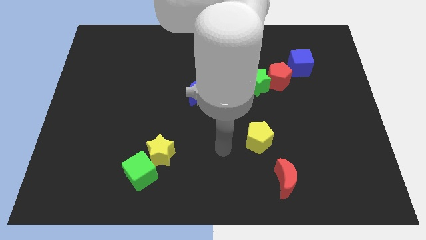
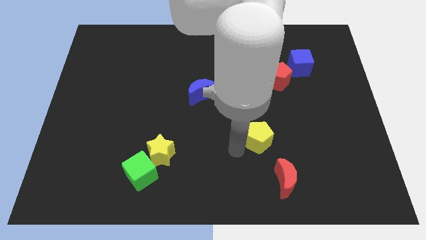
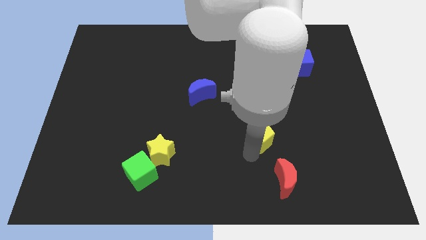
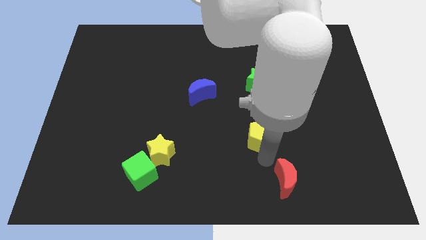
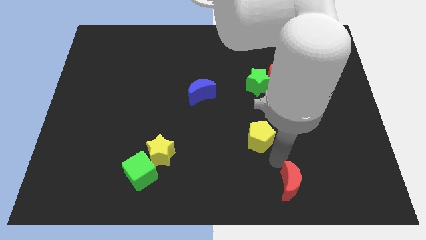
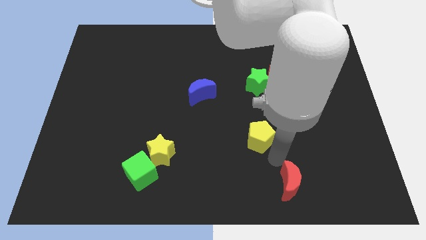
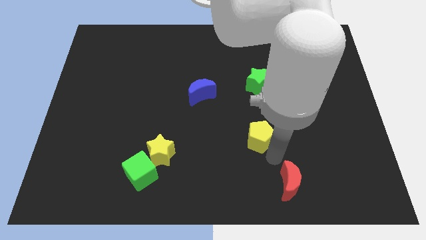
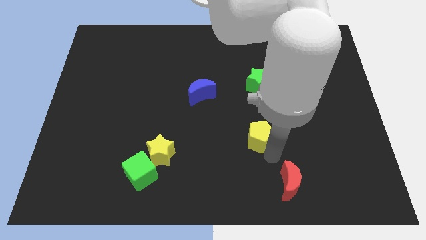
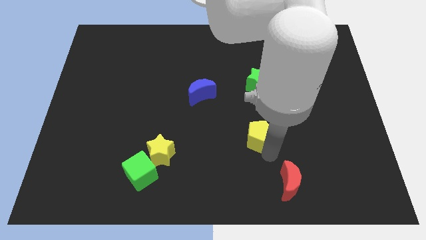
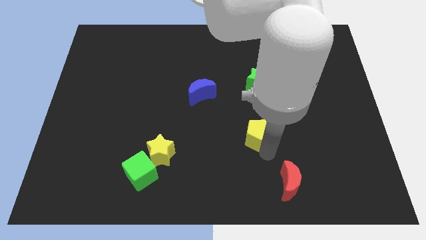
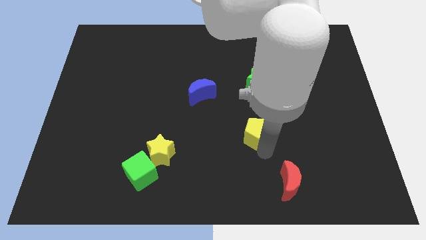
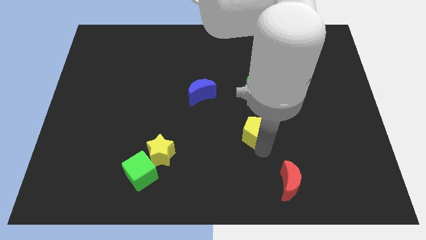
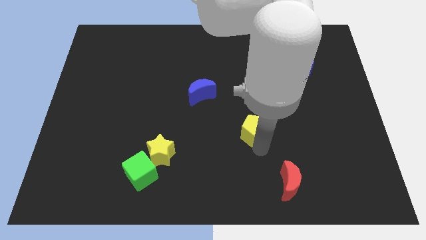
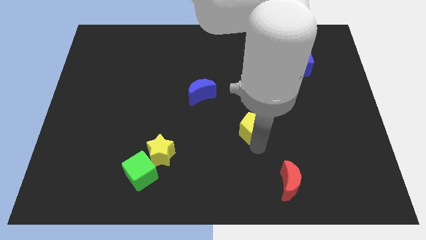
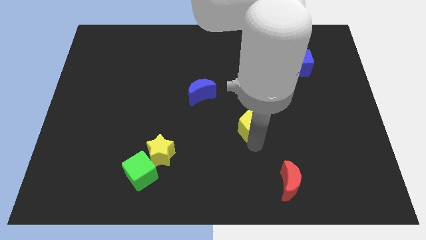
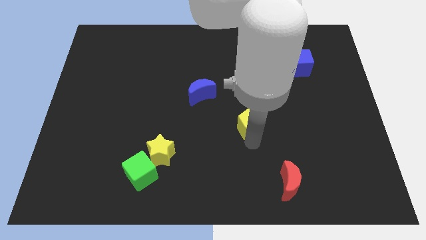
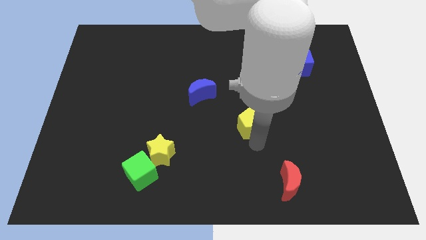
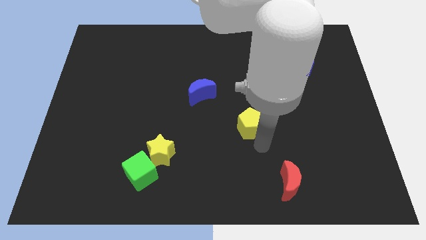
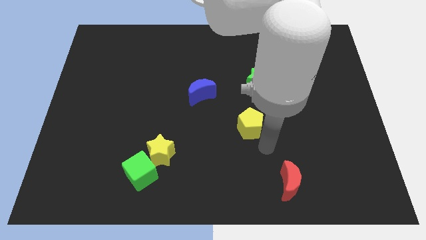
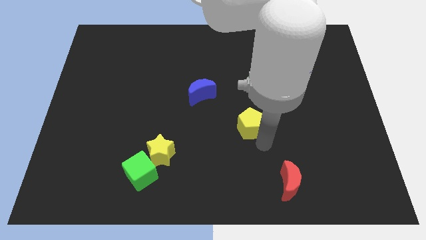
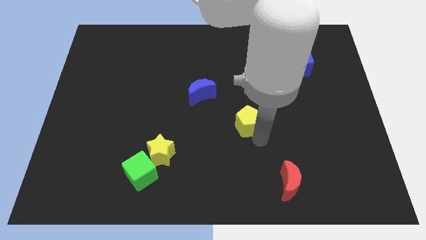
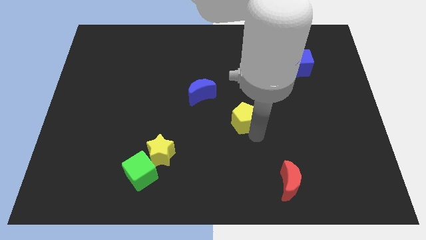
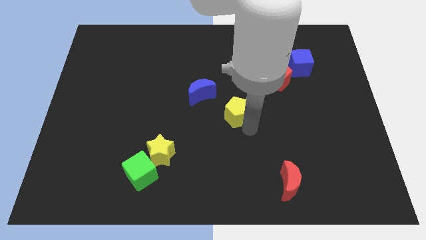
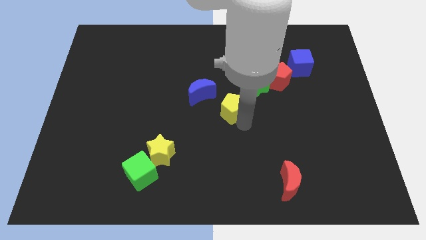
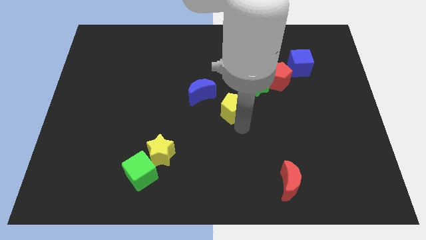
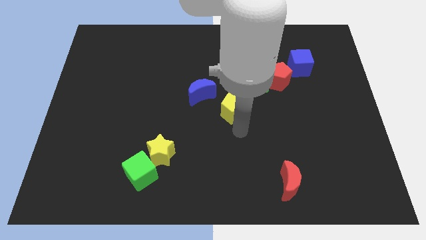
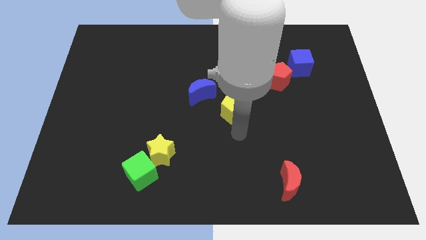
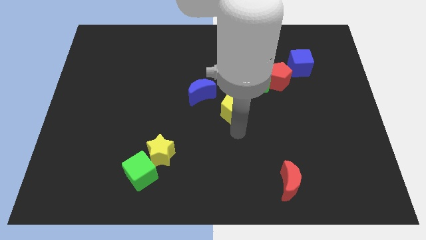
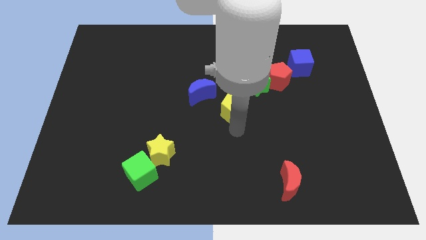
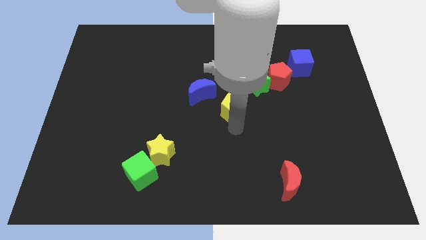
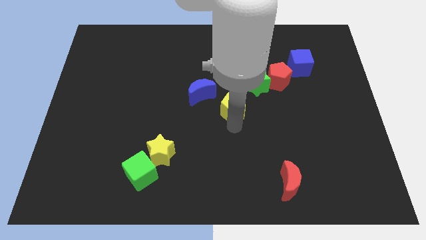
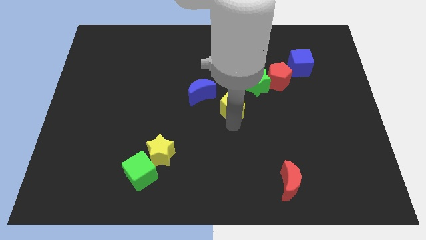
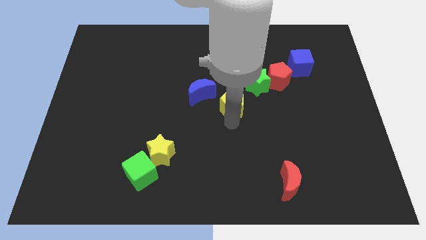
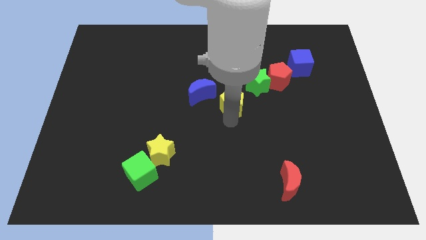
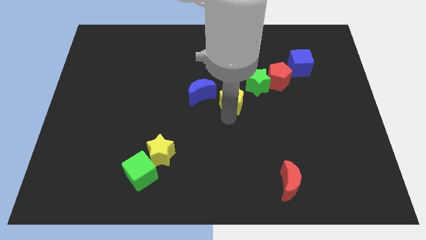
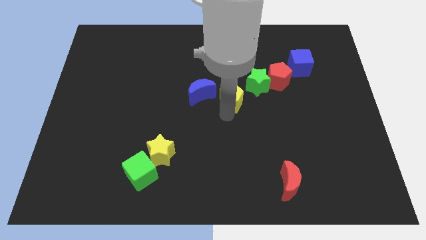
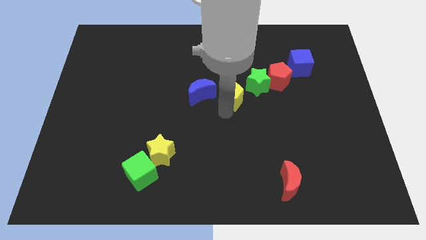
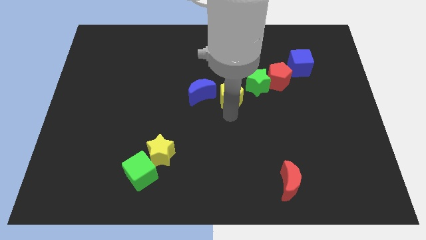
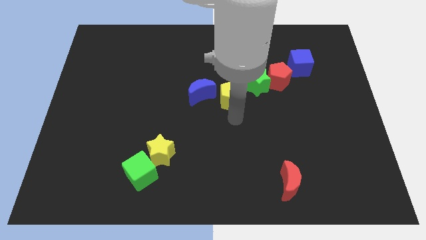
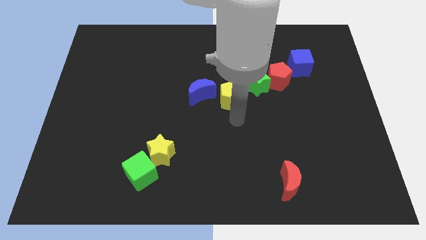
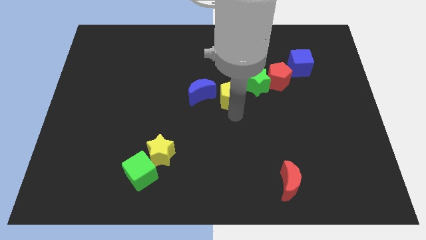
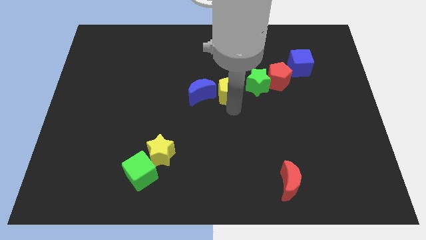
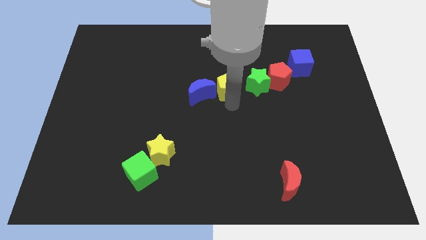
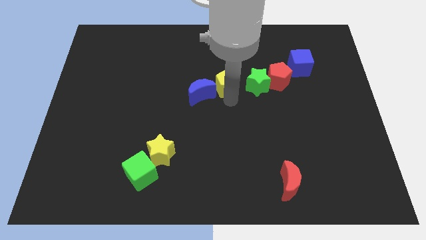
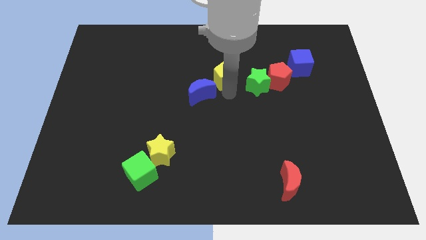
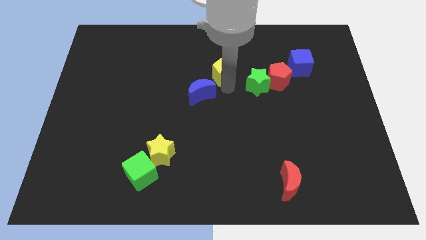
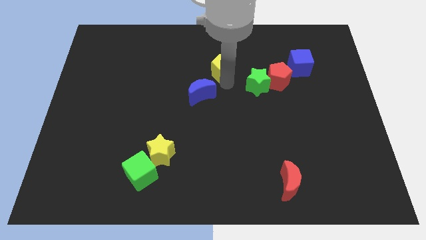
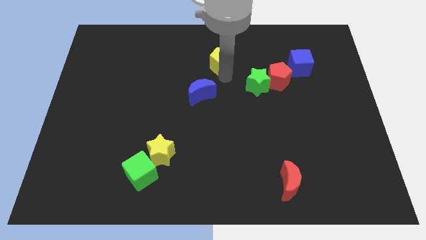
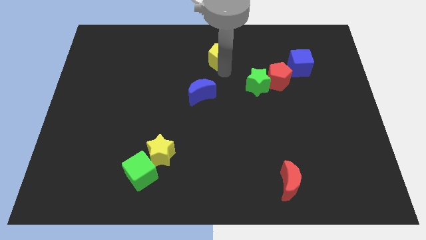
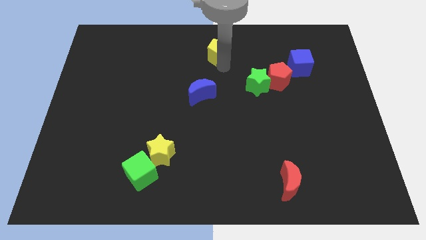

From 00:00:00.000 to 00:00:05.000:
push the yellow pentagon to the top

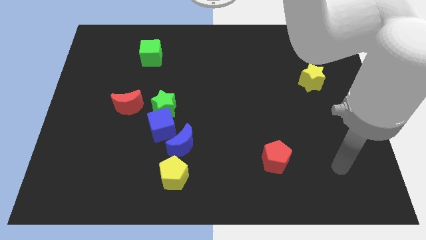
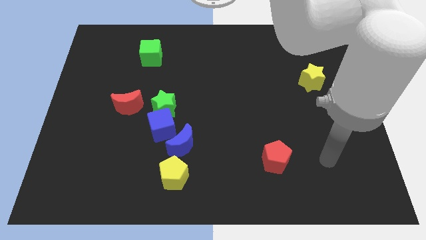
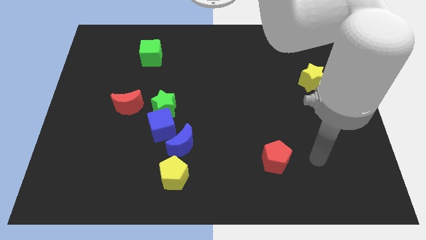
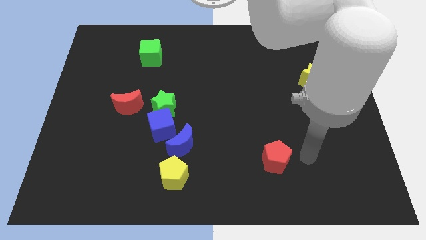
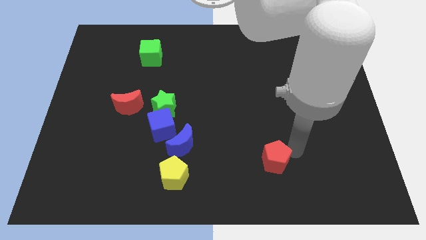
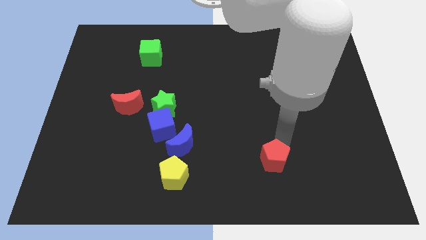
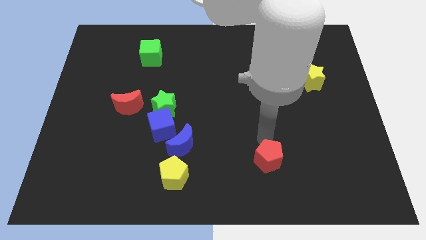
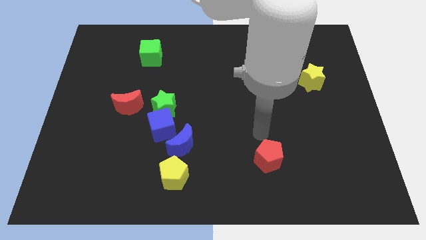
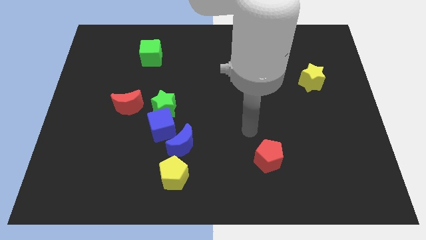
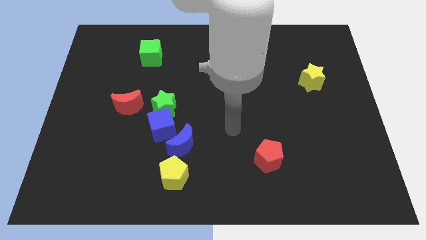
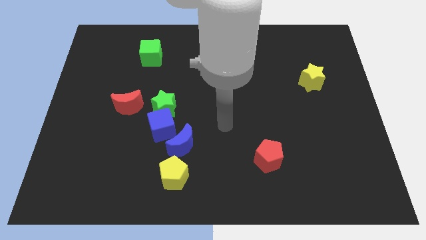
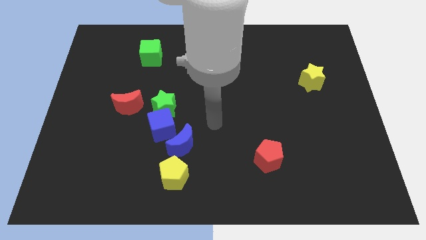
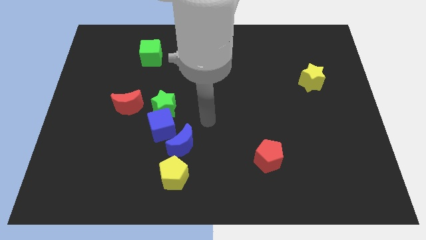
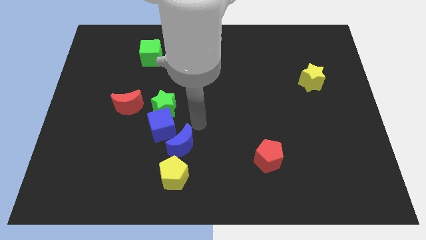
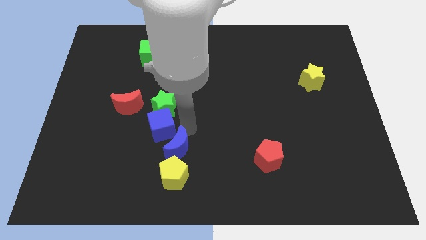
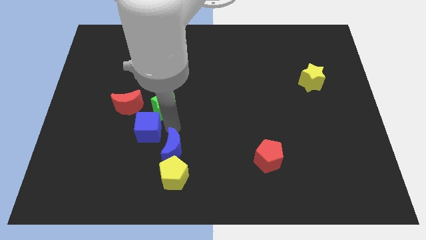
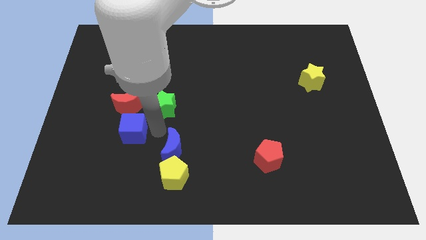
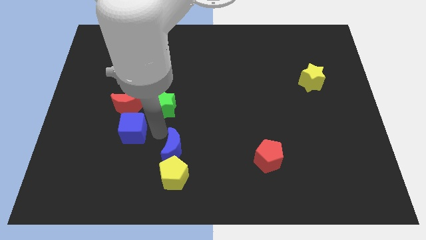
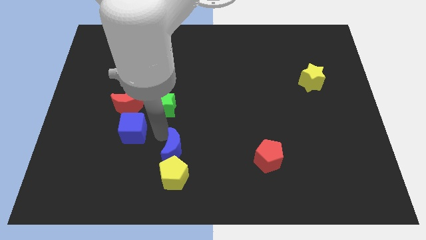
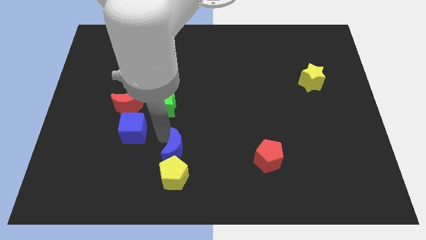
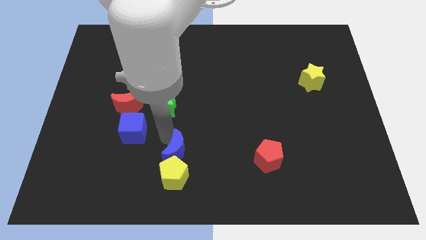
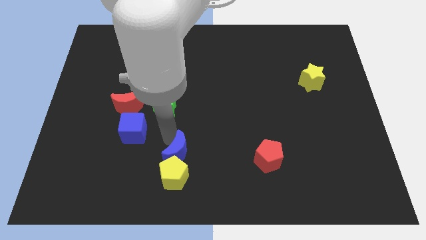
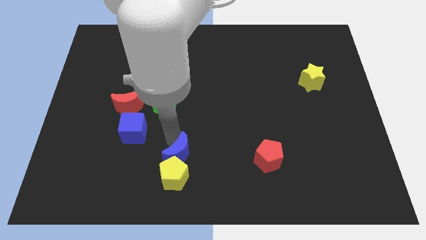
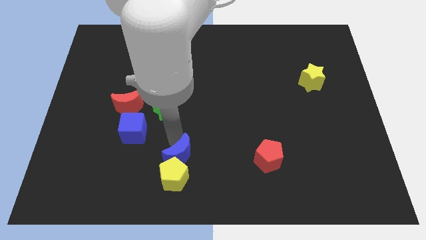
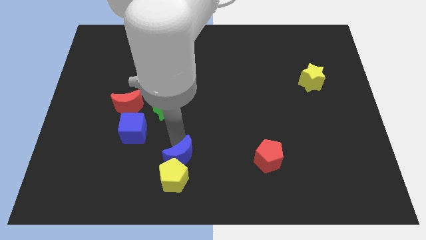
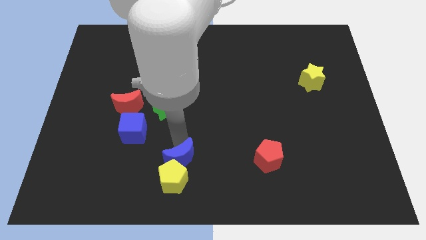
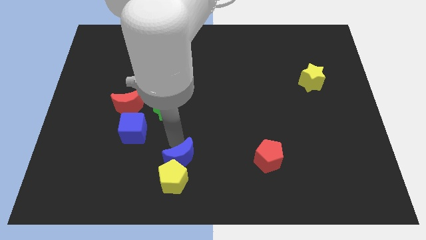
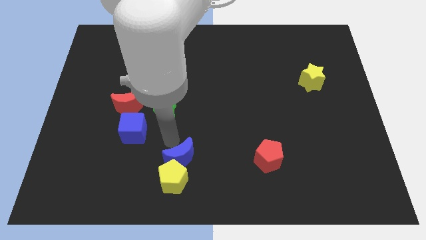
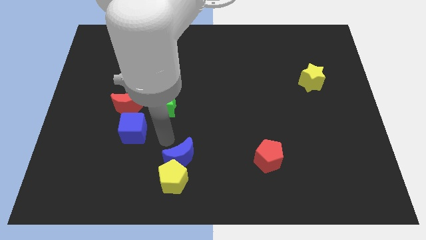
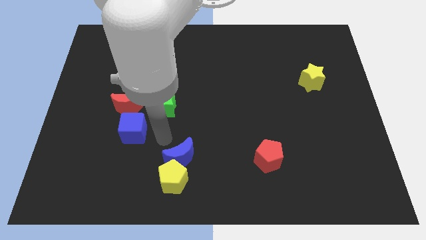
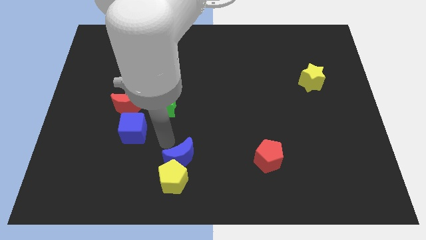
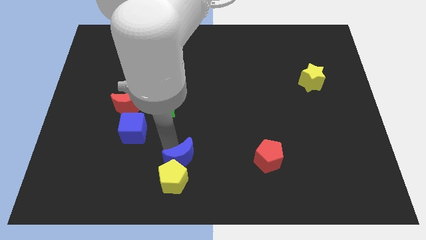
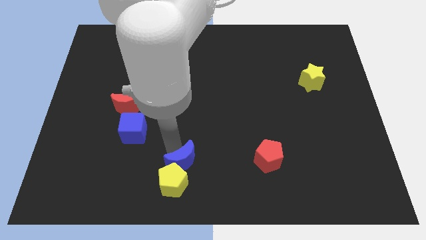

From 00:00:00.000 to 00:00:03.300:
move the blue moon to the bottom
